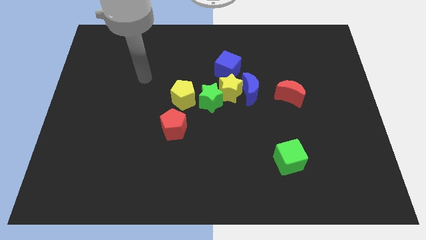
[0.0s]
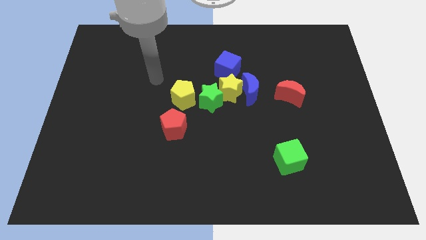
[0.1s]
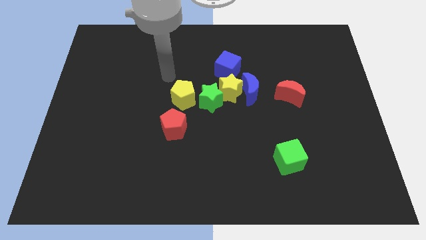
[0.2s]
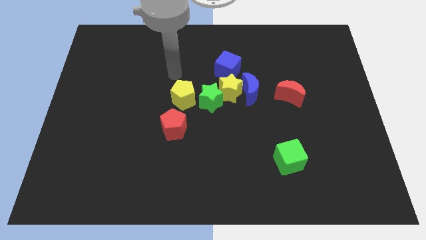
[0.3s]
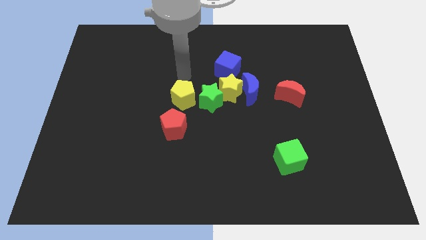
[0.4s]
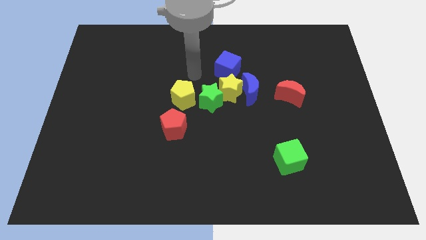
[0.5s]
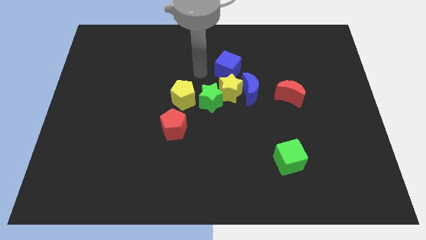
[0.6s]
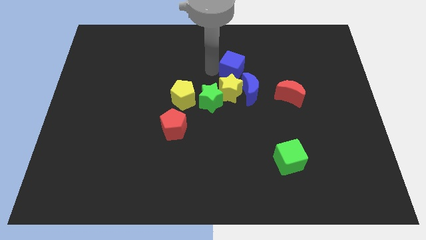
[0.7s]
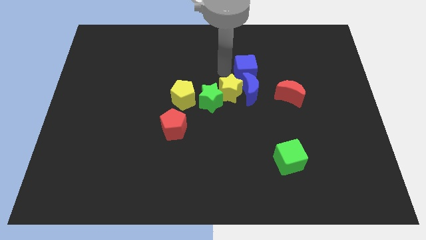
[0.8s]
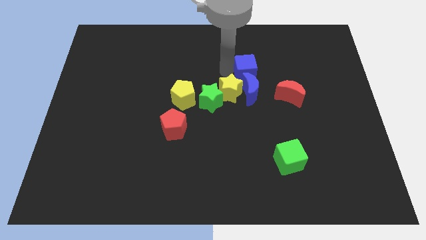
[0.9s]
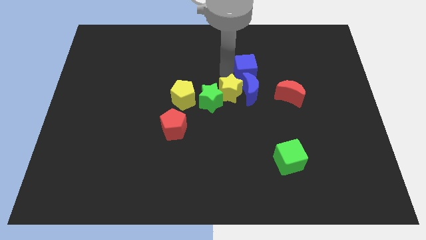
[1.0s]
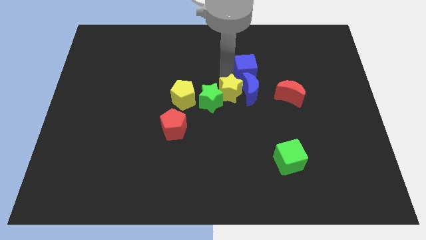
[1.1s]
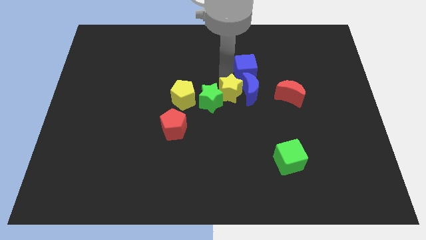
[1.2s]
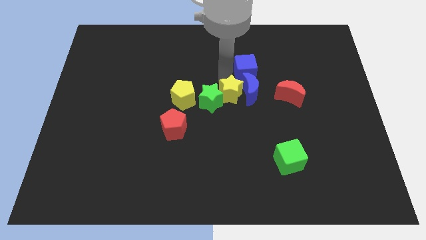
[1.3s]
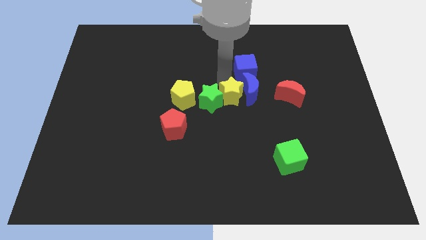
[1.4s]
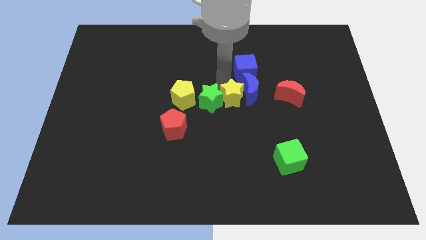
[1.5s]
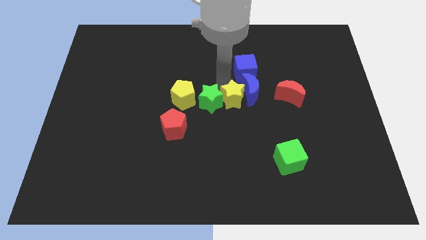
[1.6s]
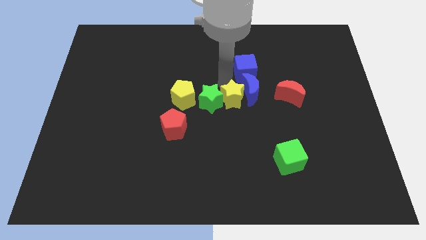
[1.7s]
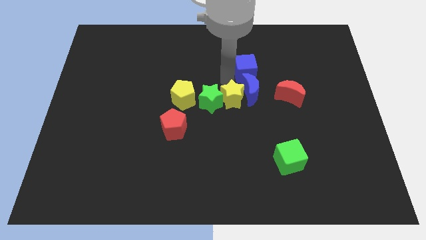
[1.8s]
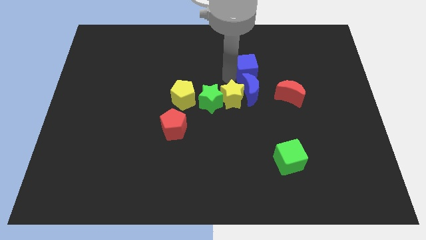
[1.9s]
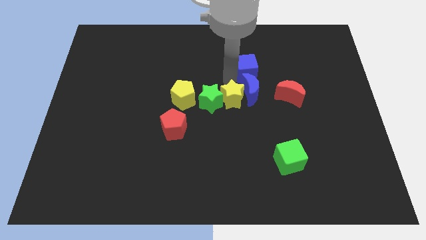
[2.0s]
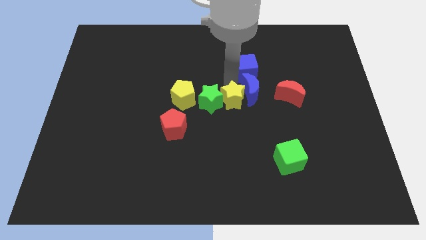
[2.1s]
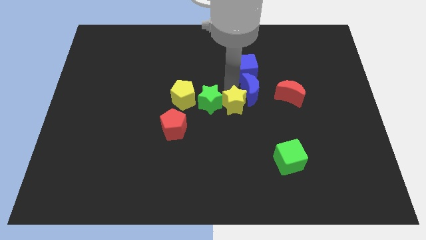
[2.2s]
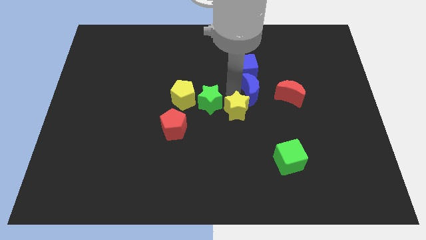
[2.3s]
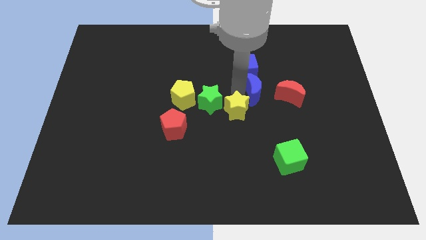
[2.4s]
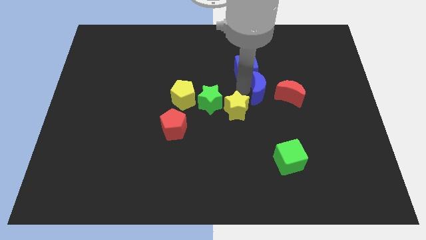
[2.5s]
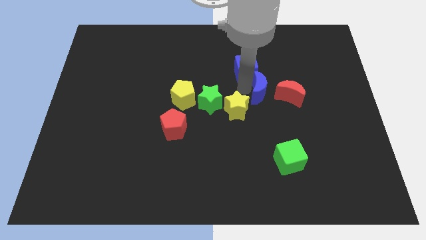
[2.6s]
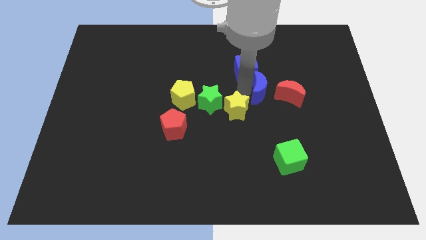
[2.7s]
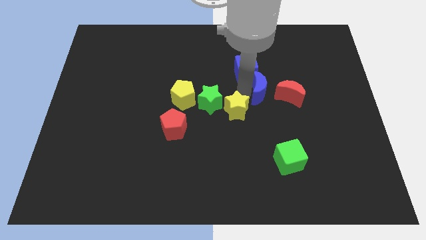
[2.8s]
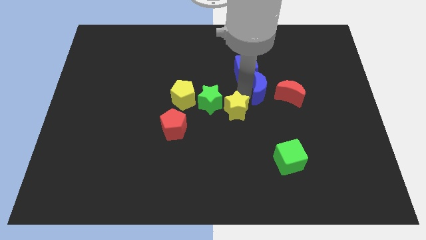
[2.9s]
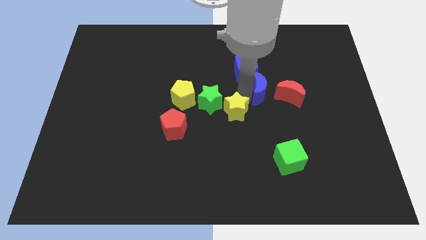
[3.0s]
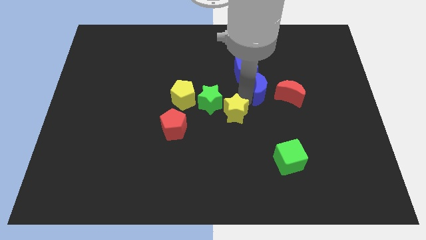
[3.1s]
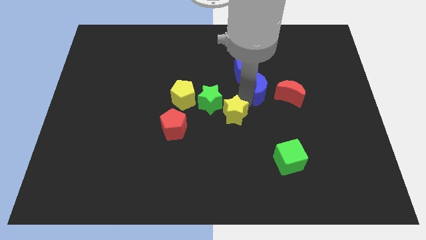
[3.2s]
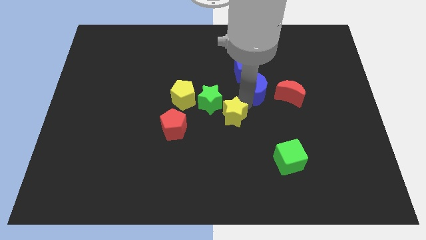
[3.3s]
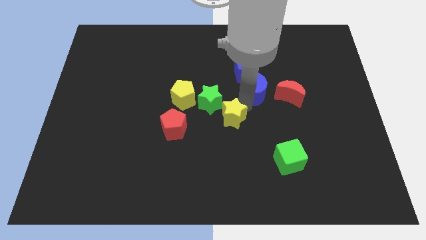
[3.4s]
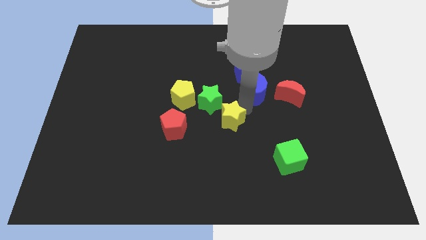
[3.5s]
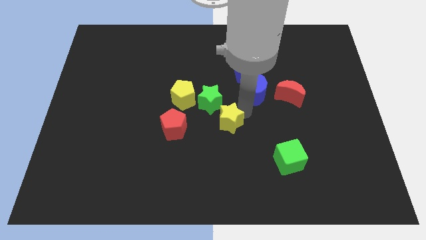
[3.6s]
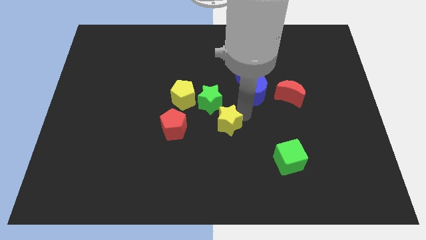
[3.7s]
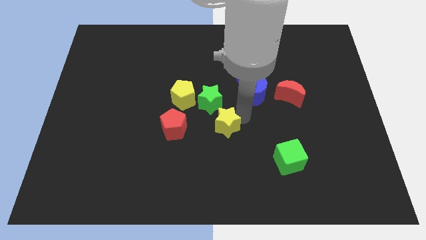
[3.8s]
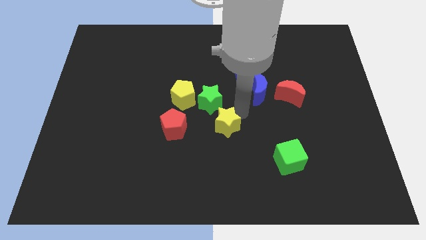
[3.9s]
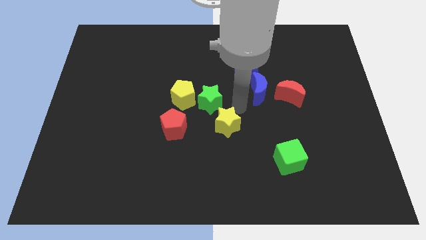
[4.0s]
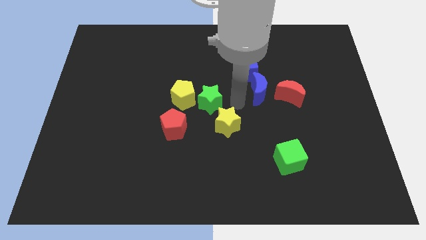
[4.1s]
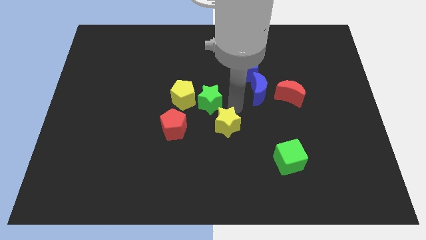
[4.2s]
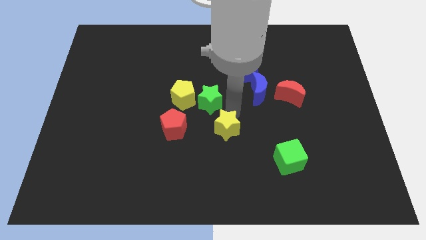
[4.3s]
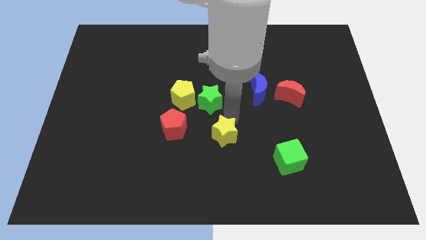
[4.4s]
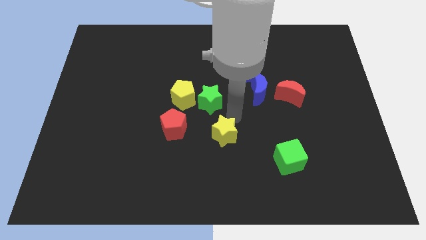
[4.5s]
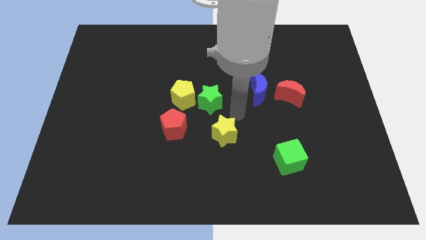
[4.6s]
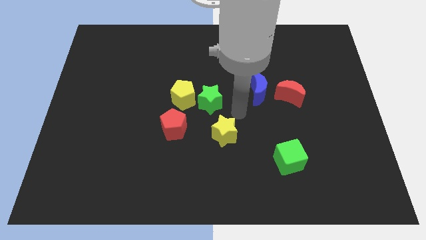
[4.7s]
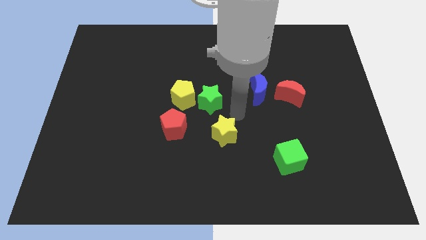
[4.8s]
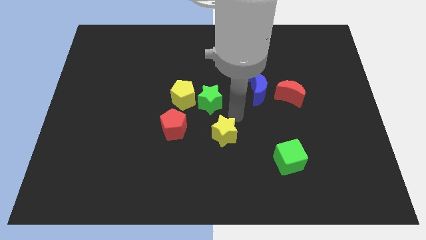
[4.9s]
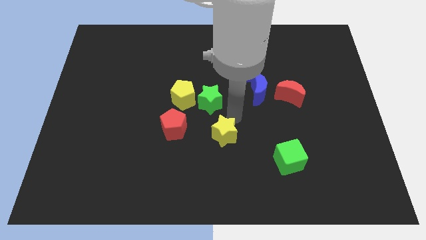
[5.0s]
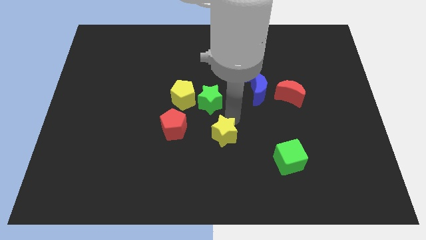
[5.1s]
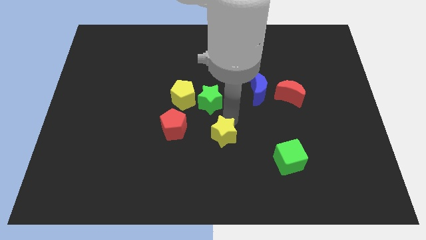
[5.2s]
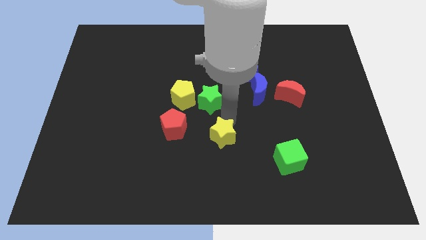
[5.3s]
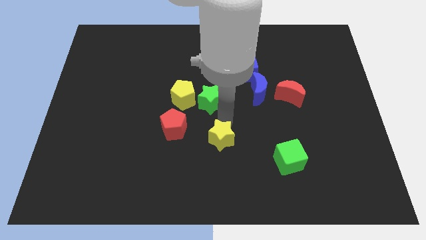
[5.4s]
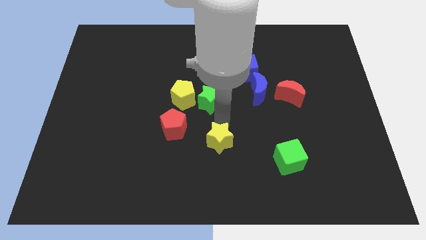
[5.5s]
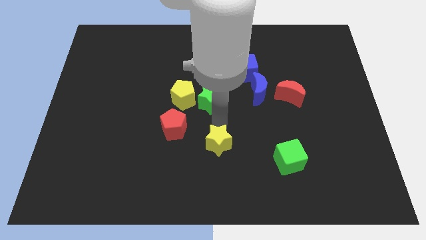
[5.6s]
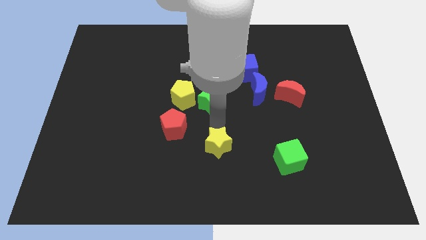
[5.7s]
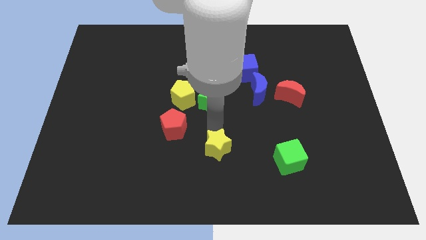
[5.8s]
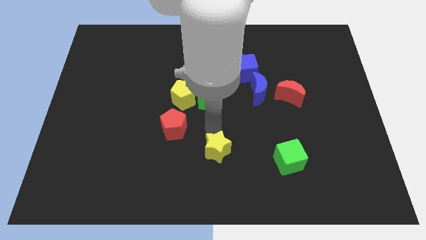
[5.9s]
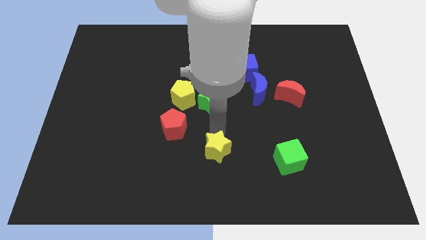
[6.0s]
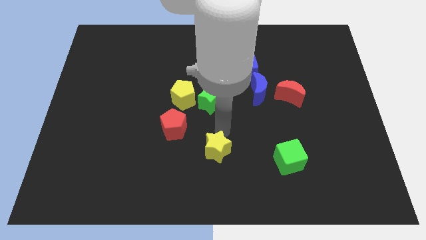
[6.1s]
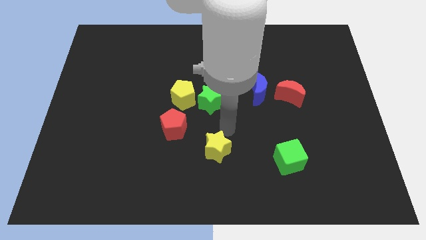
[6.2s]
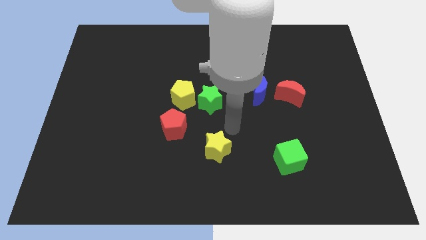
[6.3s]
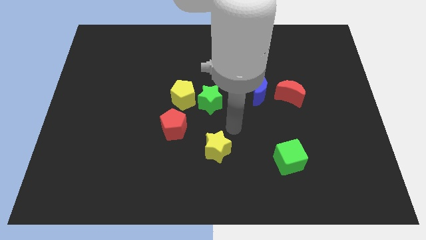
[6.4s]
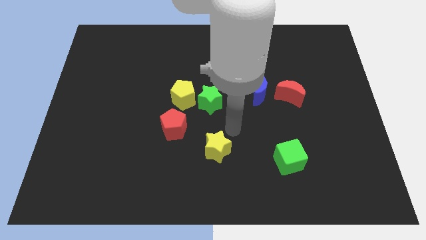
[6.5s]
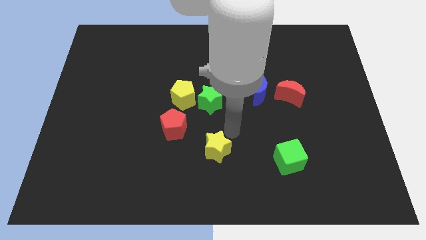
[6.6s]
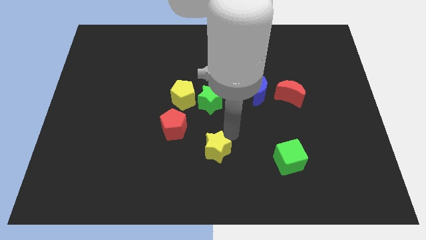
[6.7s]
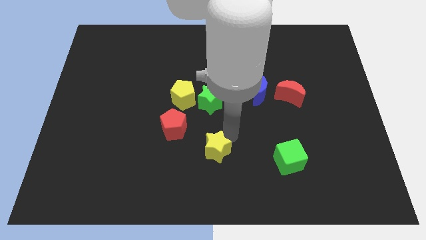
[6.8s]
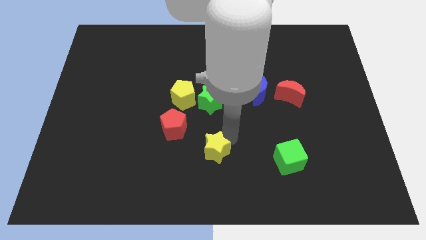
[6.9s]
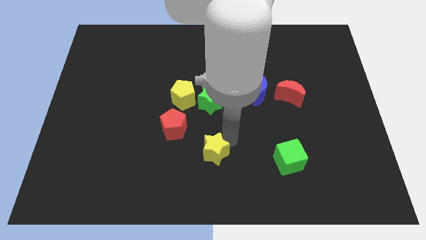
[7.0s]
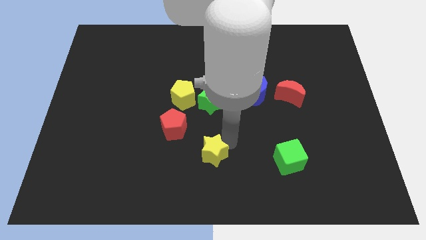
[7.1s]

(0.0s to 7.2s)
slide the yellow star to the bottom side
